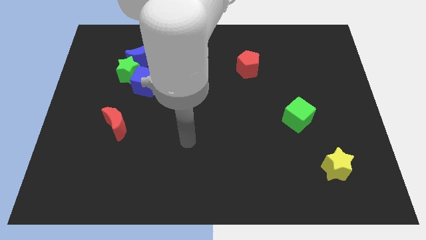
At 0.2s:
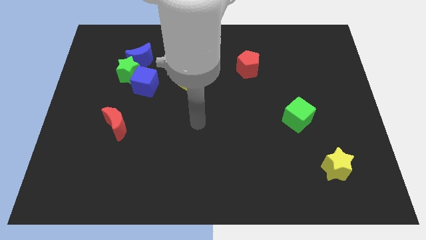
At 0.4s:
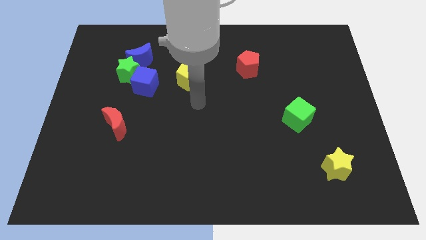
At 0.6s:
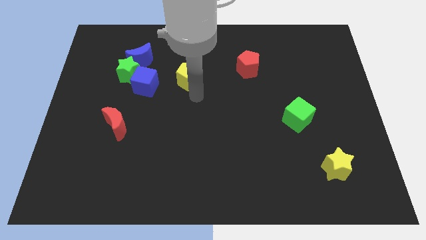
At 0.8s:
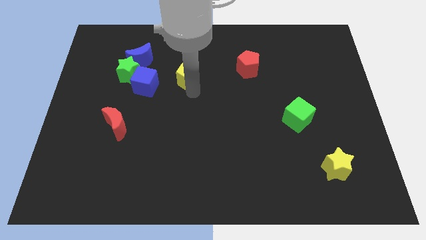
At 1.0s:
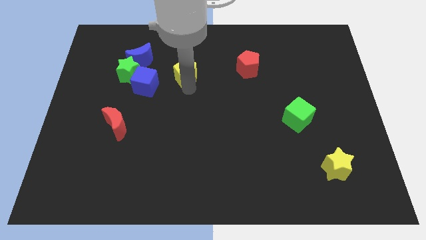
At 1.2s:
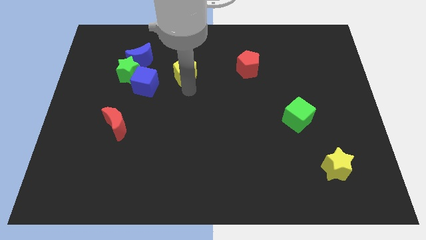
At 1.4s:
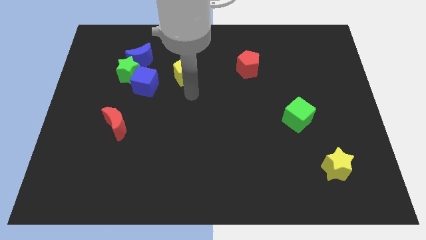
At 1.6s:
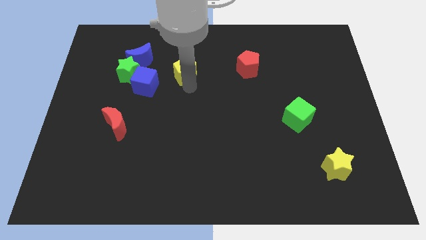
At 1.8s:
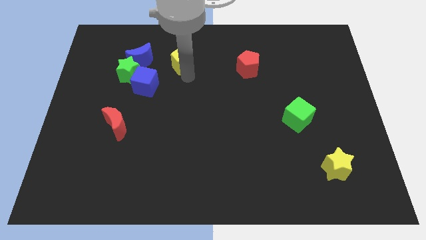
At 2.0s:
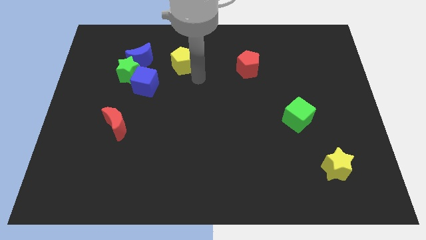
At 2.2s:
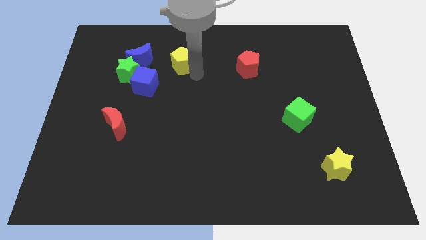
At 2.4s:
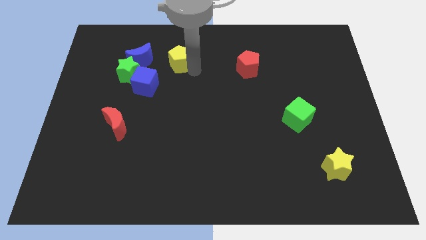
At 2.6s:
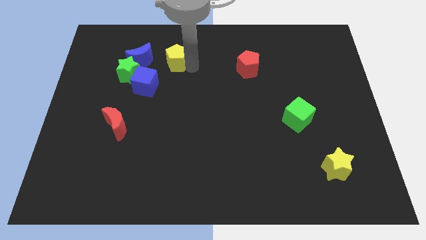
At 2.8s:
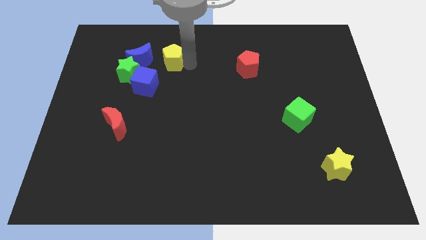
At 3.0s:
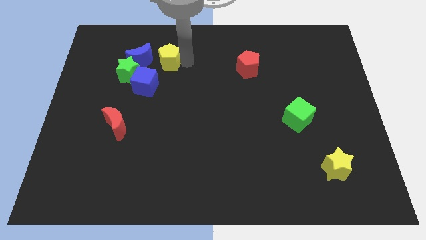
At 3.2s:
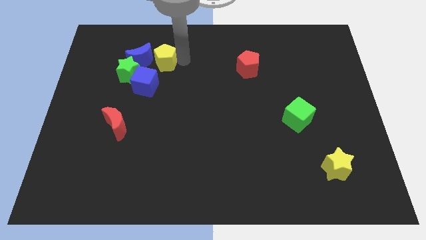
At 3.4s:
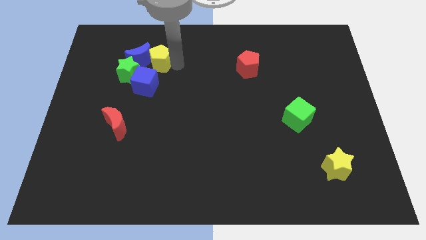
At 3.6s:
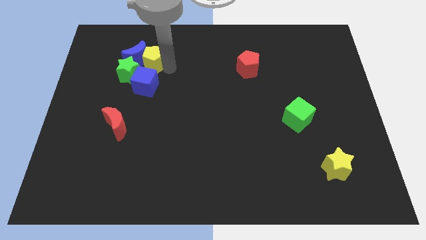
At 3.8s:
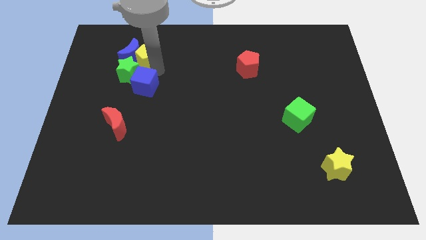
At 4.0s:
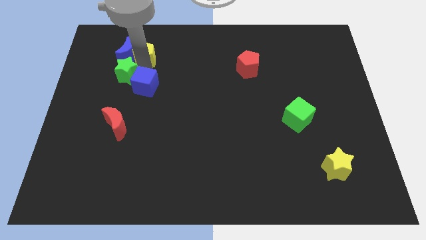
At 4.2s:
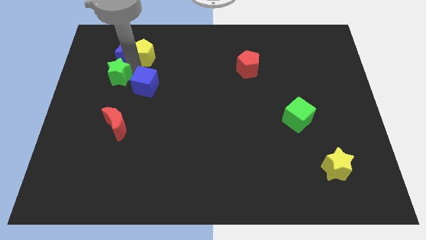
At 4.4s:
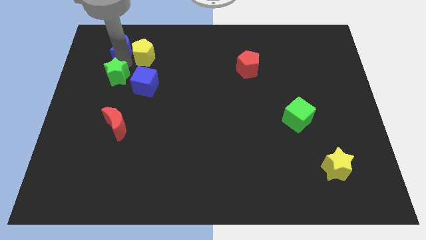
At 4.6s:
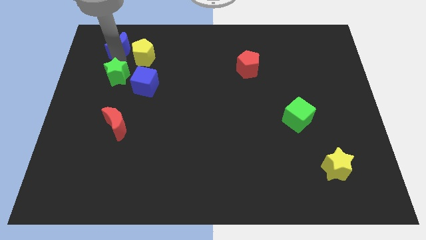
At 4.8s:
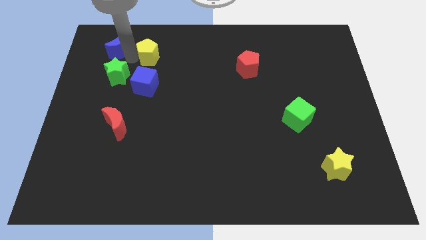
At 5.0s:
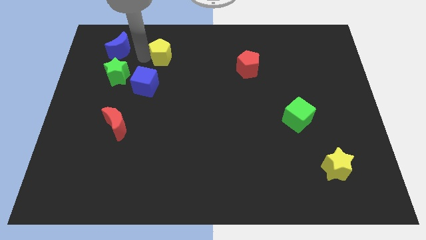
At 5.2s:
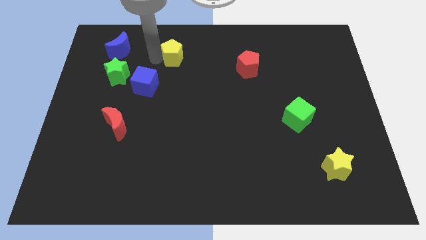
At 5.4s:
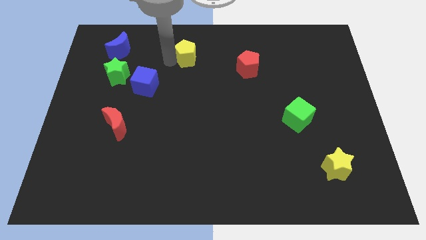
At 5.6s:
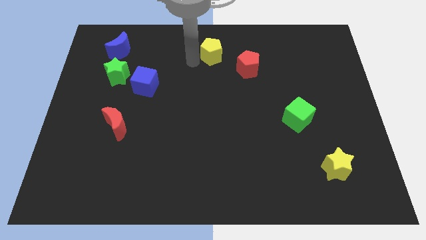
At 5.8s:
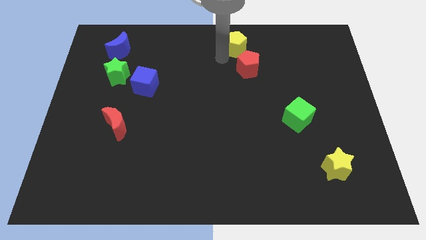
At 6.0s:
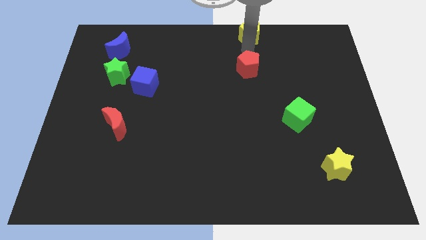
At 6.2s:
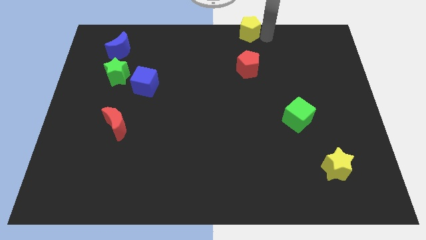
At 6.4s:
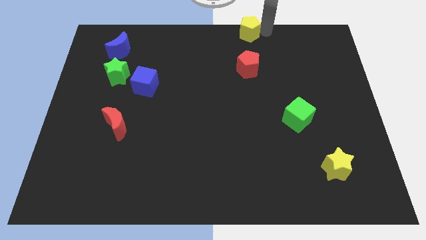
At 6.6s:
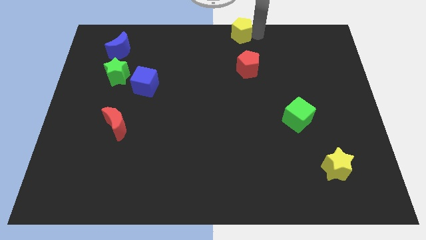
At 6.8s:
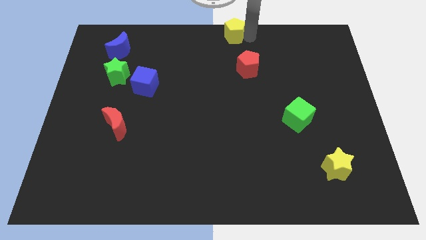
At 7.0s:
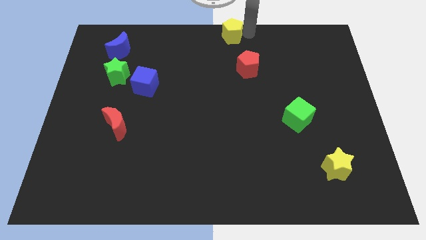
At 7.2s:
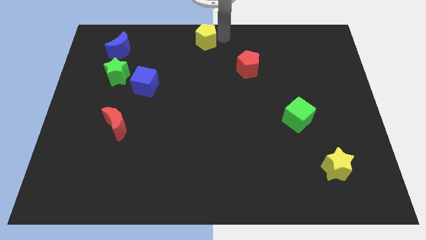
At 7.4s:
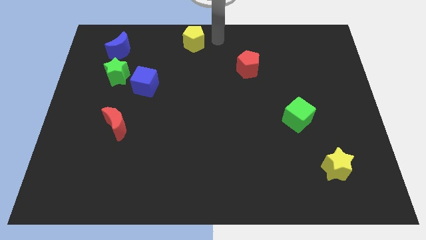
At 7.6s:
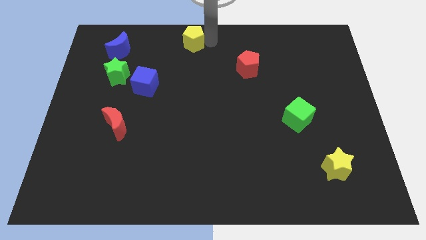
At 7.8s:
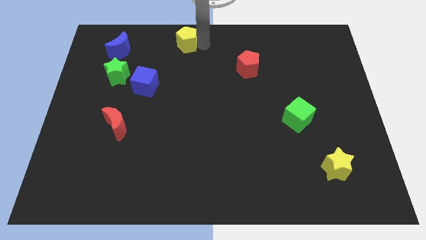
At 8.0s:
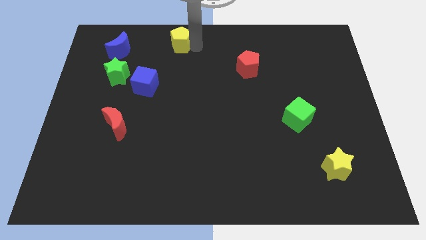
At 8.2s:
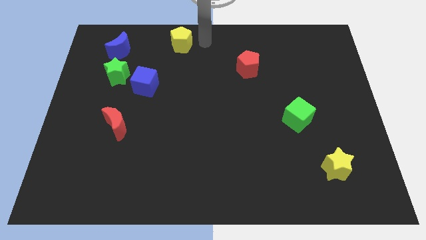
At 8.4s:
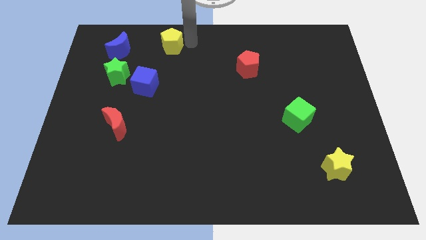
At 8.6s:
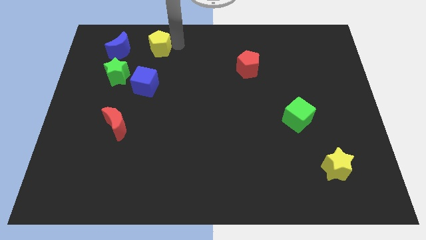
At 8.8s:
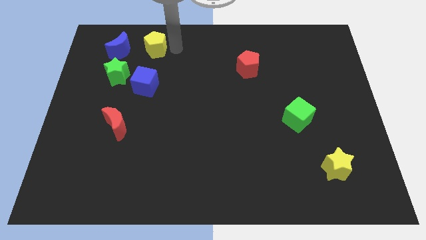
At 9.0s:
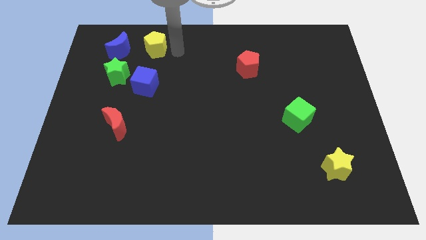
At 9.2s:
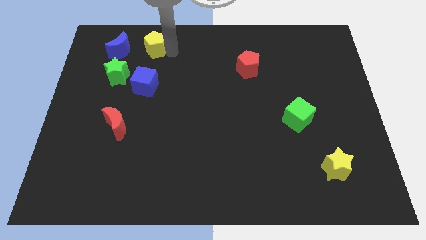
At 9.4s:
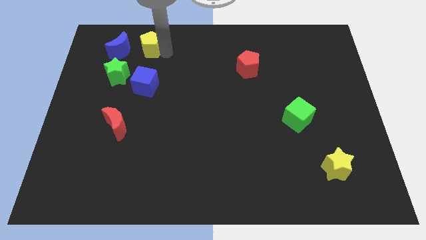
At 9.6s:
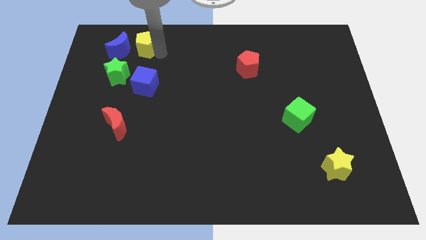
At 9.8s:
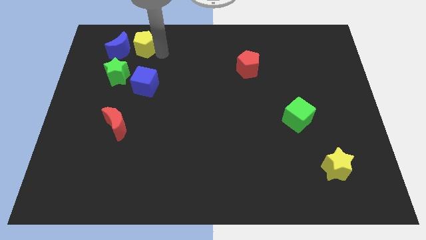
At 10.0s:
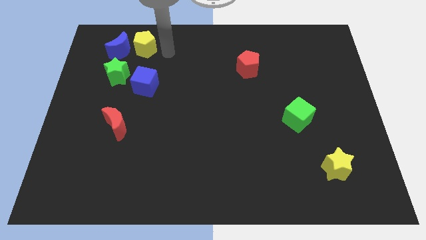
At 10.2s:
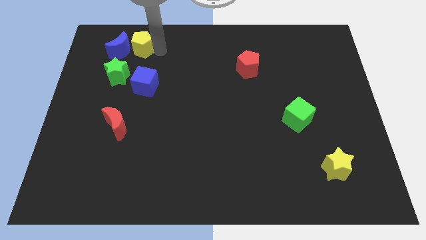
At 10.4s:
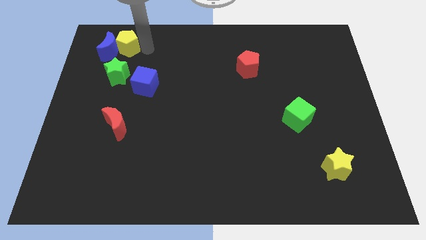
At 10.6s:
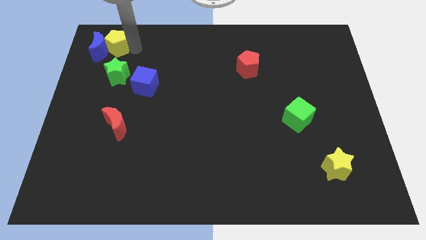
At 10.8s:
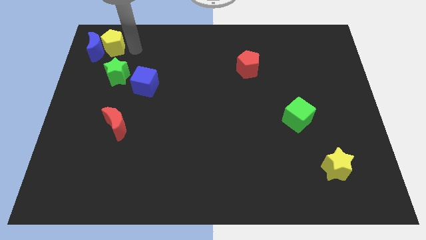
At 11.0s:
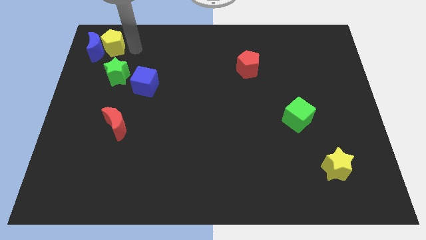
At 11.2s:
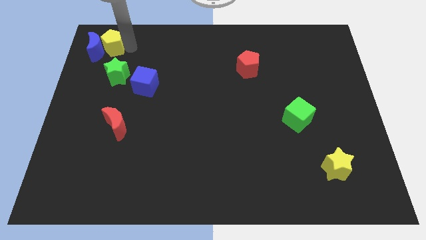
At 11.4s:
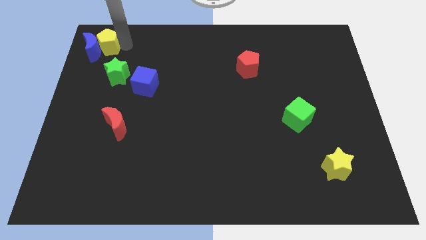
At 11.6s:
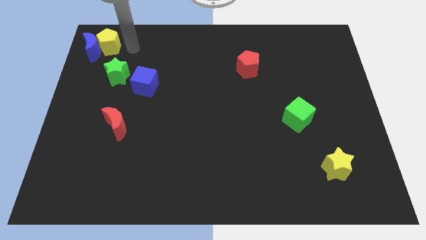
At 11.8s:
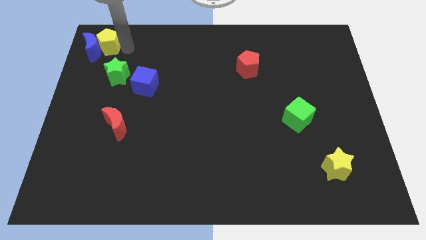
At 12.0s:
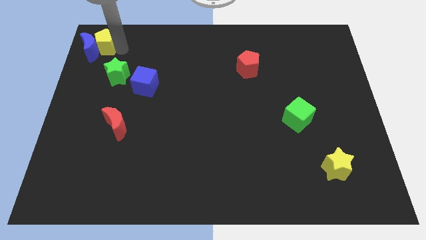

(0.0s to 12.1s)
push the yellow pentagon to the top left corner

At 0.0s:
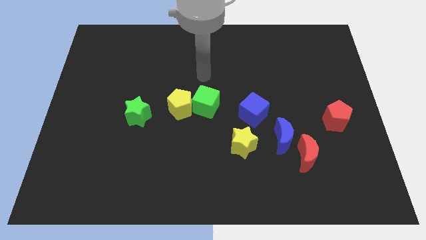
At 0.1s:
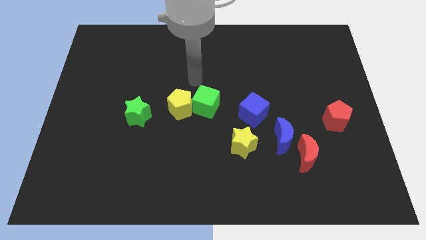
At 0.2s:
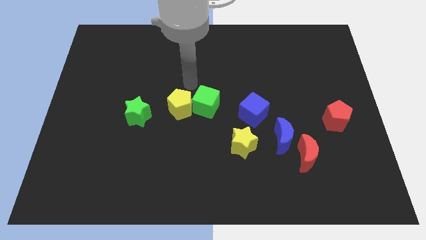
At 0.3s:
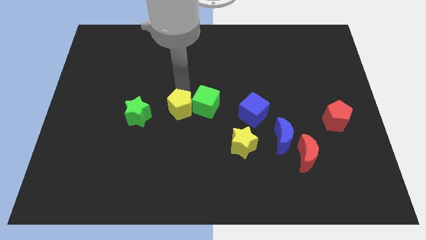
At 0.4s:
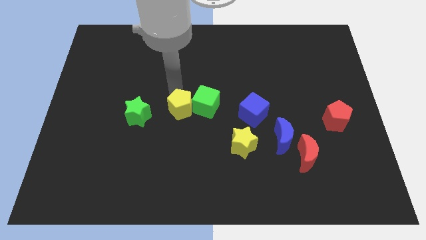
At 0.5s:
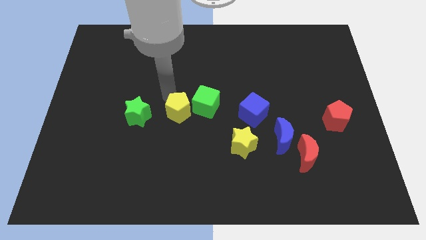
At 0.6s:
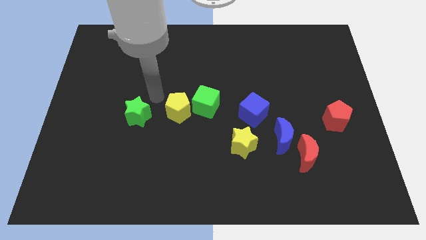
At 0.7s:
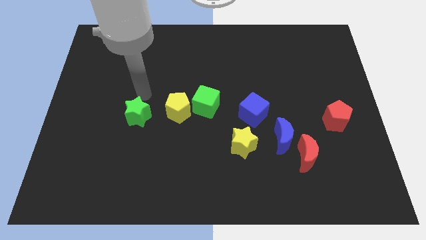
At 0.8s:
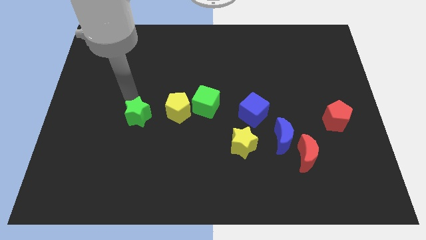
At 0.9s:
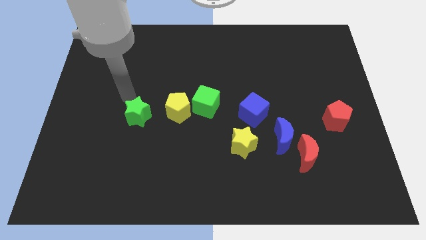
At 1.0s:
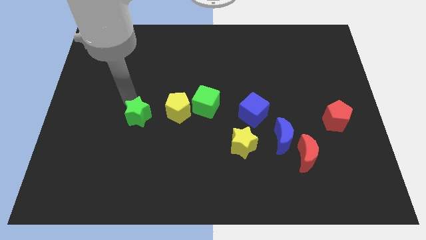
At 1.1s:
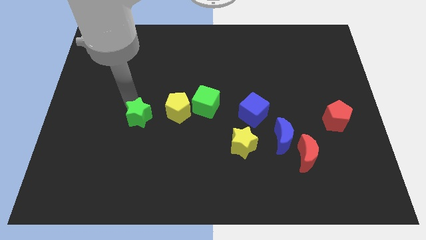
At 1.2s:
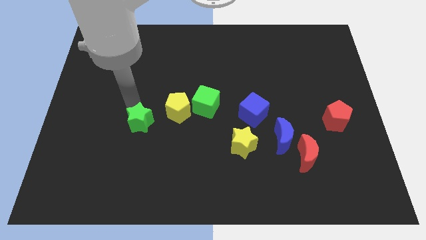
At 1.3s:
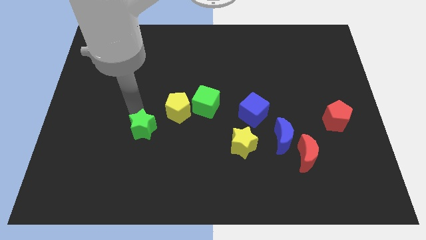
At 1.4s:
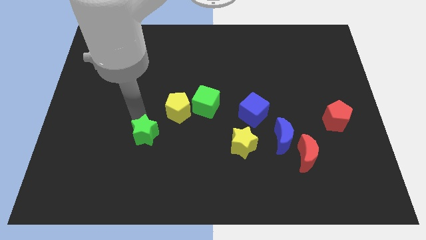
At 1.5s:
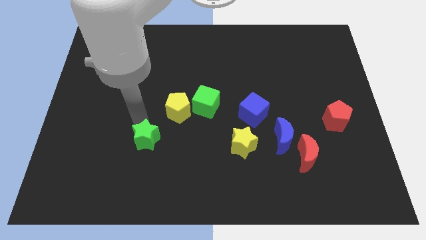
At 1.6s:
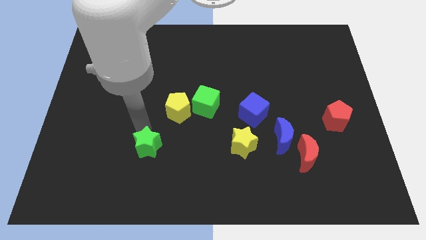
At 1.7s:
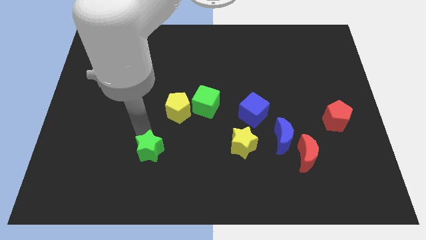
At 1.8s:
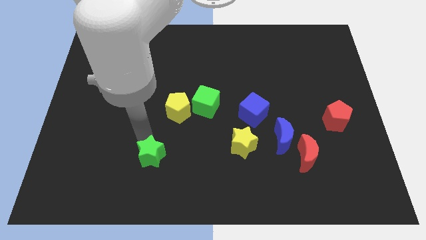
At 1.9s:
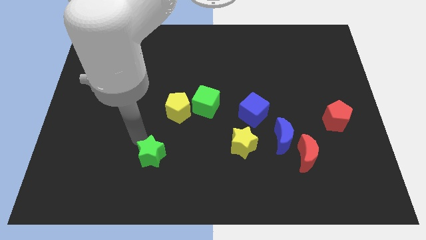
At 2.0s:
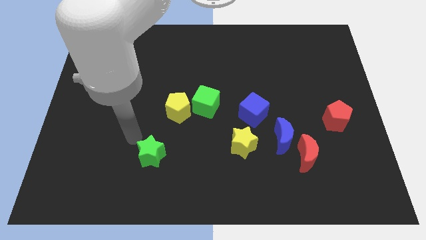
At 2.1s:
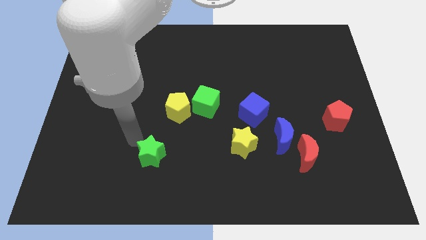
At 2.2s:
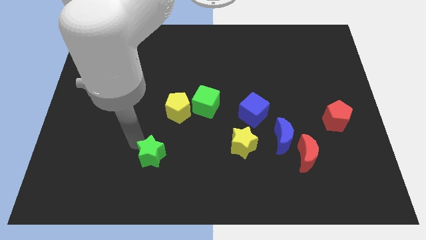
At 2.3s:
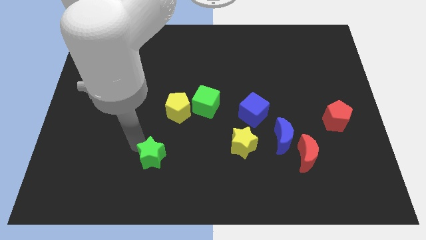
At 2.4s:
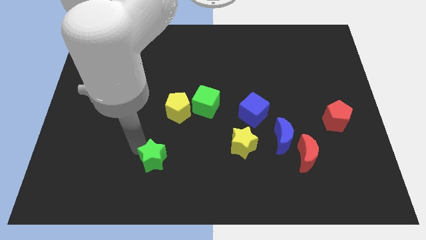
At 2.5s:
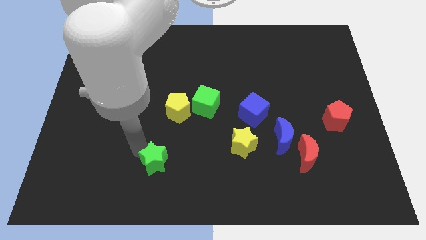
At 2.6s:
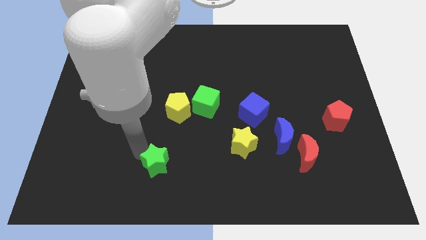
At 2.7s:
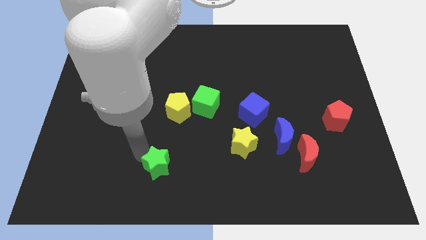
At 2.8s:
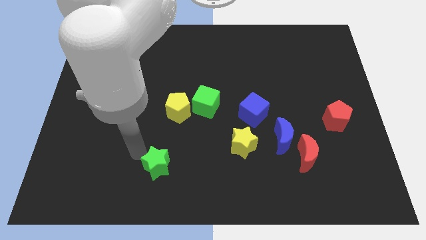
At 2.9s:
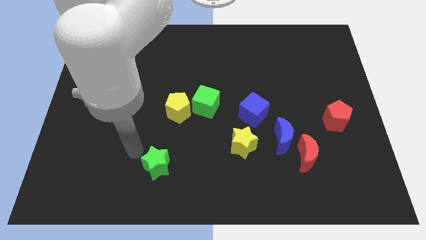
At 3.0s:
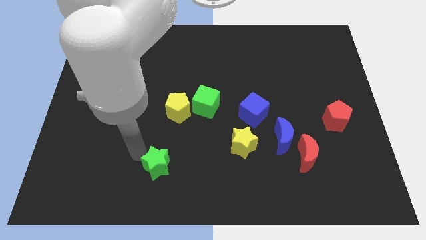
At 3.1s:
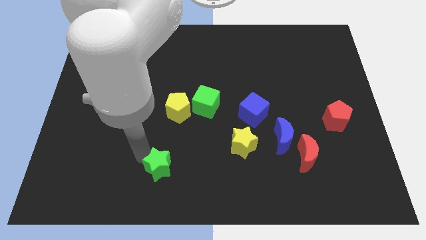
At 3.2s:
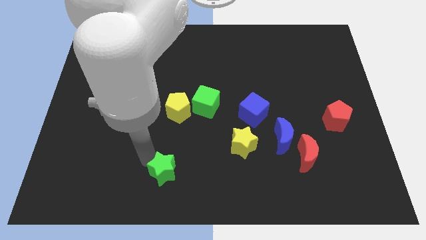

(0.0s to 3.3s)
slide the green star to the bottom side
